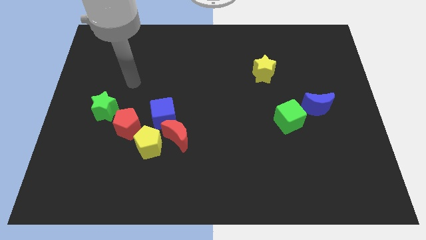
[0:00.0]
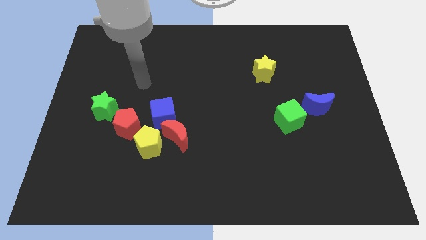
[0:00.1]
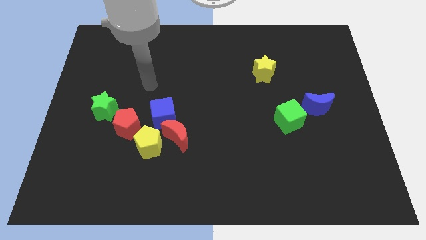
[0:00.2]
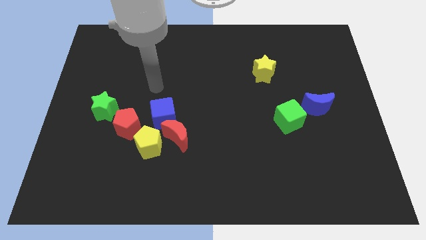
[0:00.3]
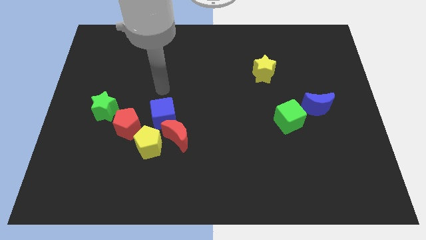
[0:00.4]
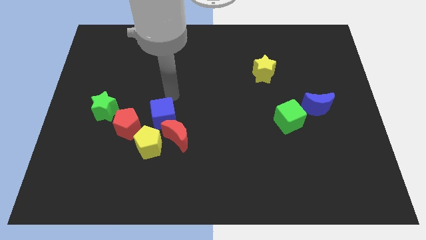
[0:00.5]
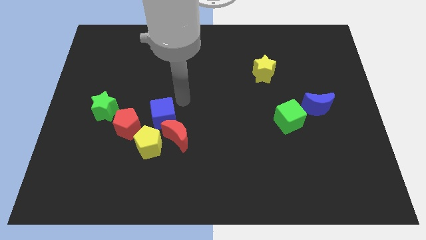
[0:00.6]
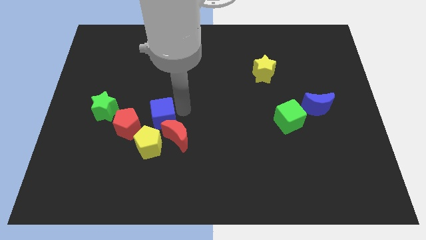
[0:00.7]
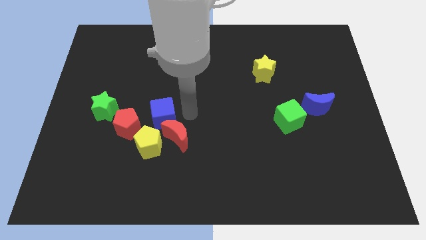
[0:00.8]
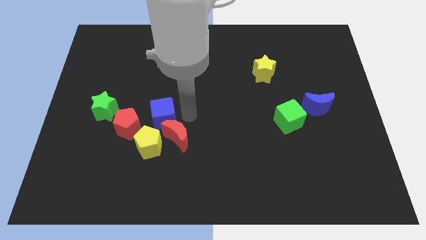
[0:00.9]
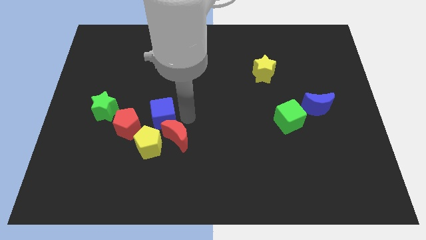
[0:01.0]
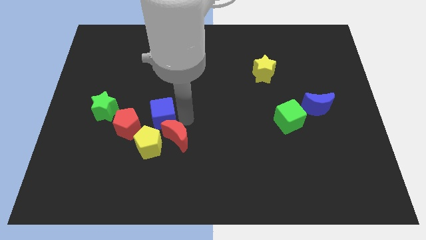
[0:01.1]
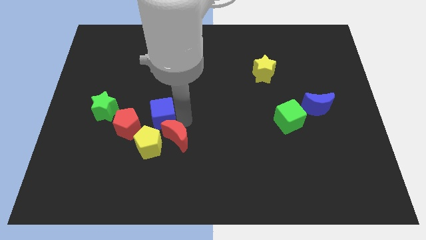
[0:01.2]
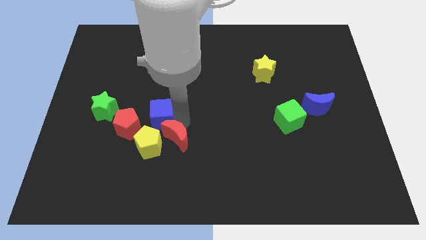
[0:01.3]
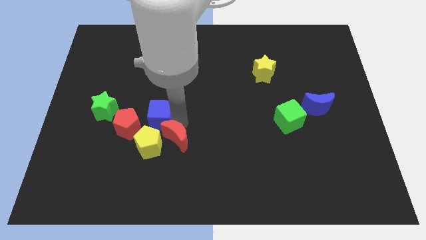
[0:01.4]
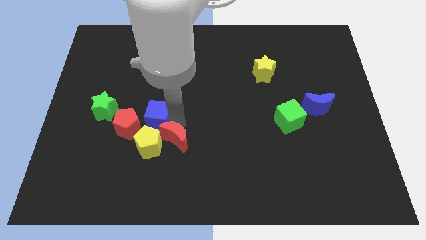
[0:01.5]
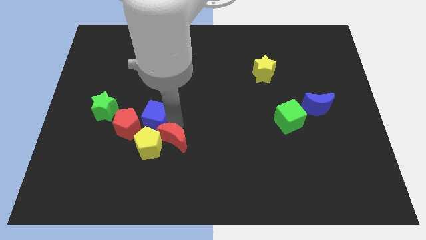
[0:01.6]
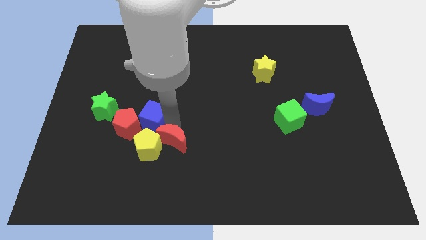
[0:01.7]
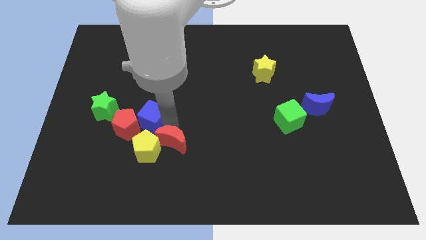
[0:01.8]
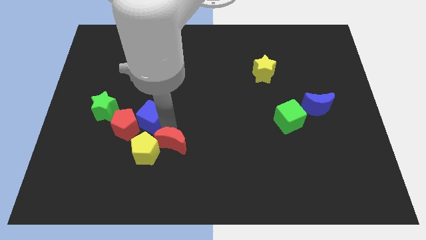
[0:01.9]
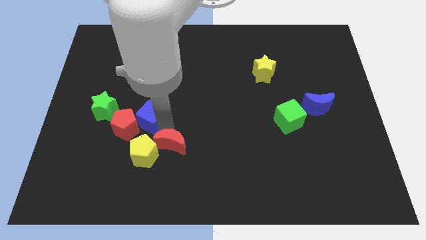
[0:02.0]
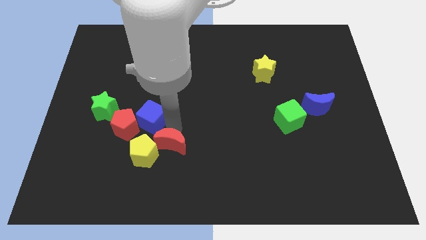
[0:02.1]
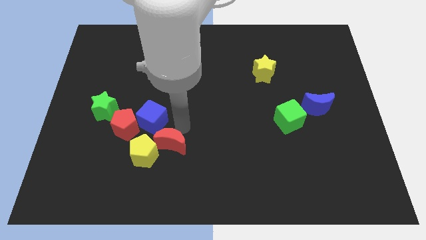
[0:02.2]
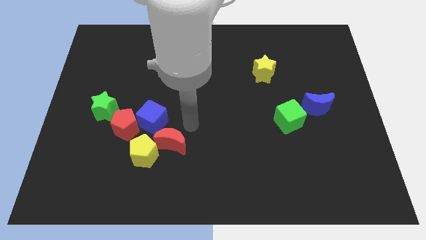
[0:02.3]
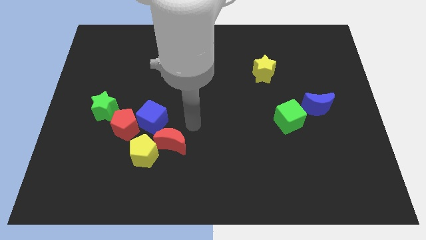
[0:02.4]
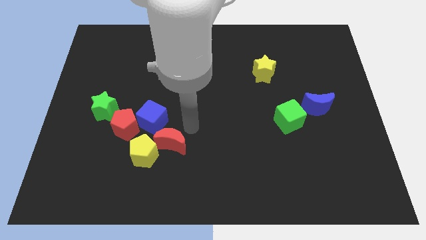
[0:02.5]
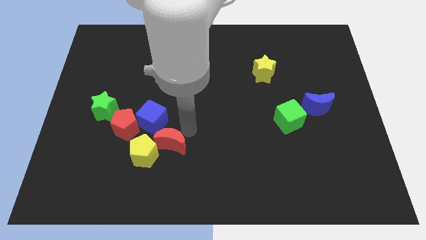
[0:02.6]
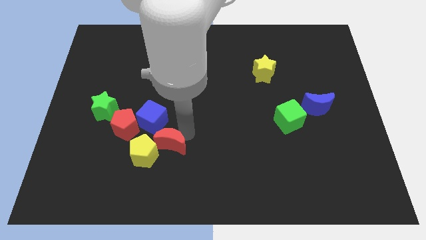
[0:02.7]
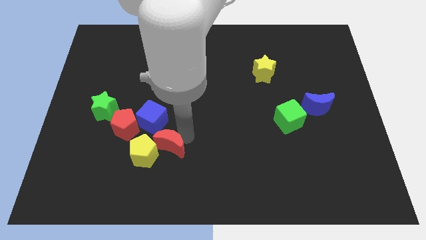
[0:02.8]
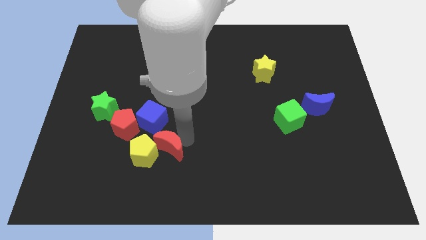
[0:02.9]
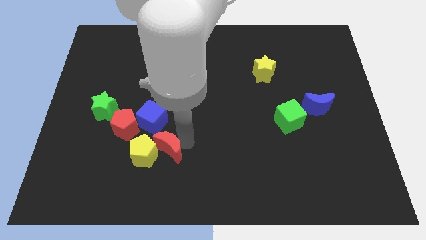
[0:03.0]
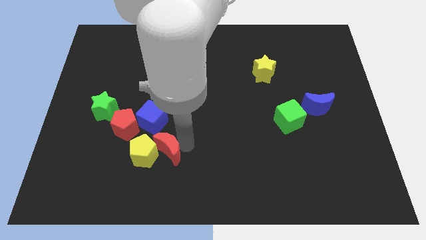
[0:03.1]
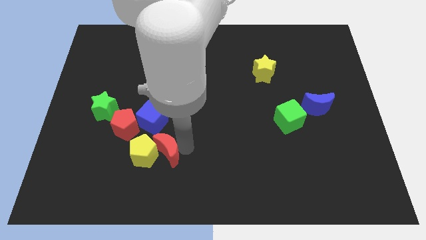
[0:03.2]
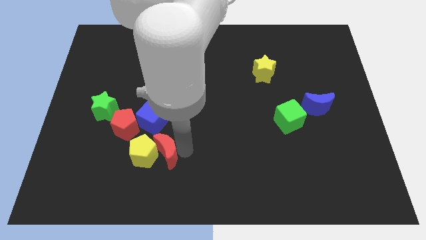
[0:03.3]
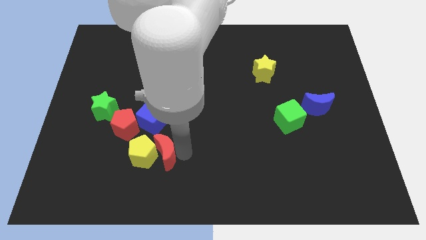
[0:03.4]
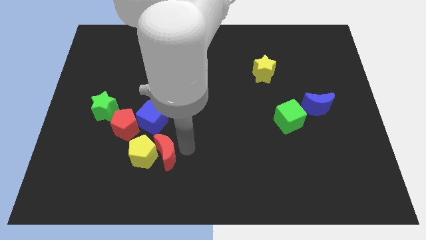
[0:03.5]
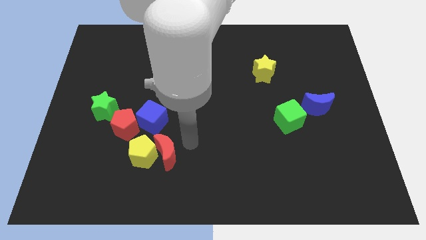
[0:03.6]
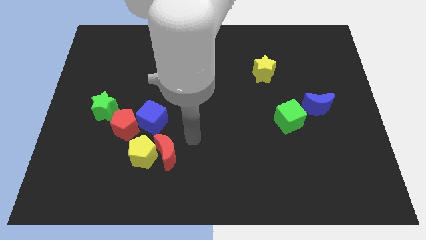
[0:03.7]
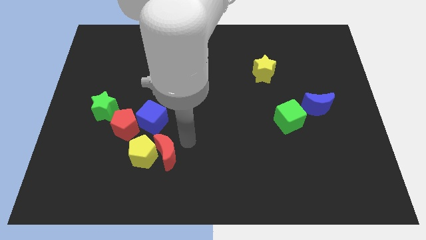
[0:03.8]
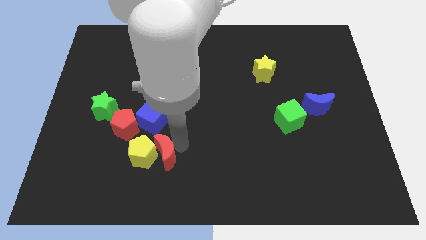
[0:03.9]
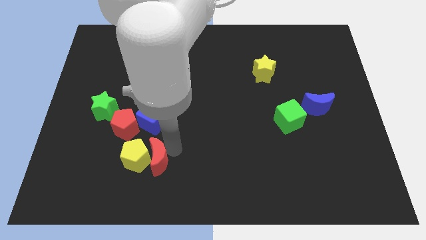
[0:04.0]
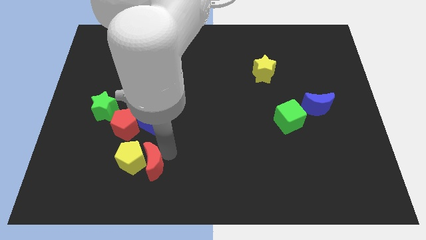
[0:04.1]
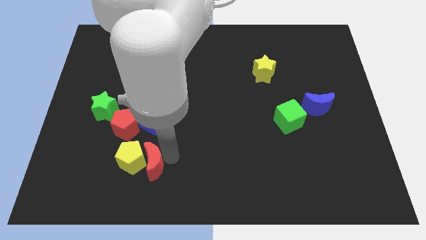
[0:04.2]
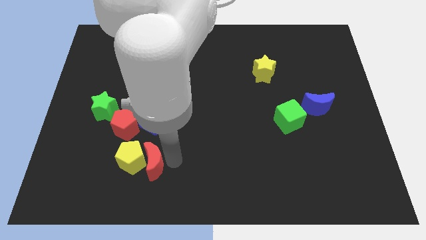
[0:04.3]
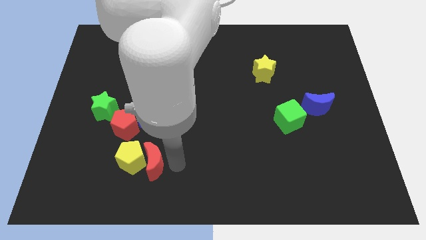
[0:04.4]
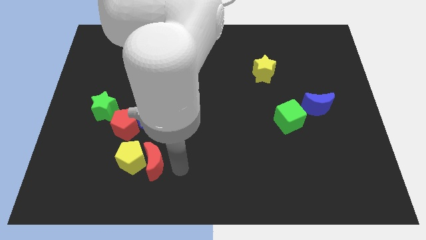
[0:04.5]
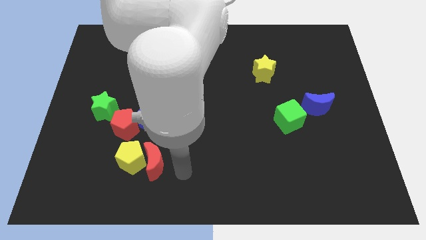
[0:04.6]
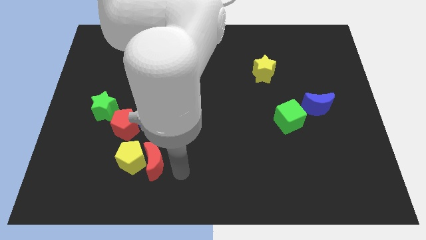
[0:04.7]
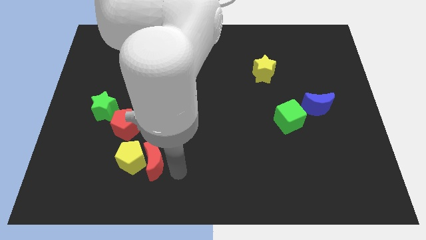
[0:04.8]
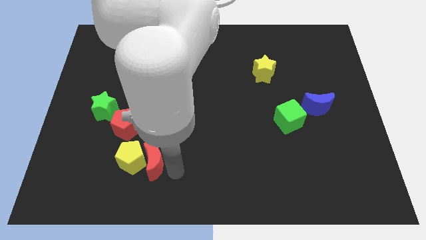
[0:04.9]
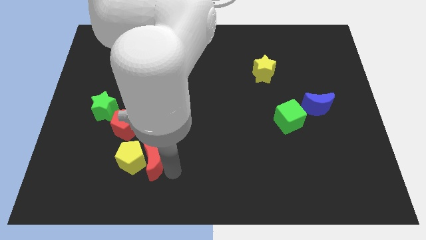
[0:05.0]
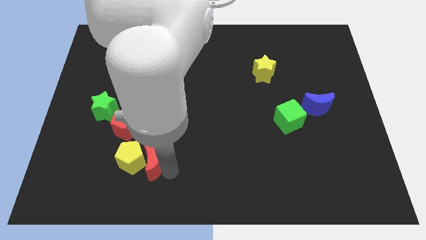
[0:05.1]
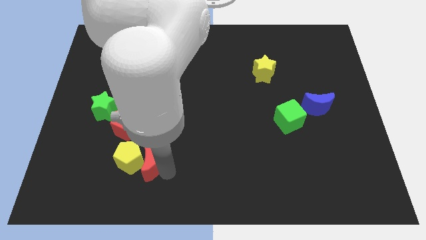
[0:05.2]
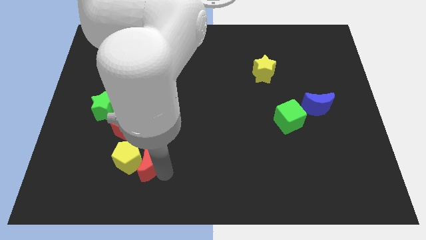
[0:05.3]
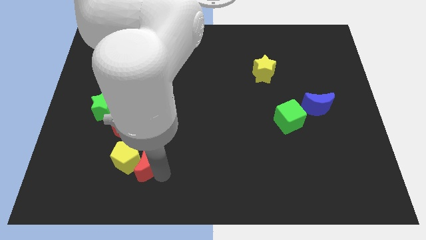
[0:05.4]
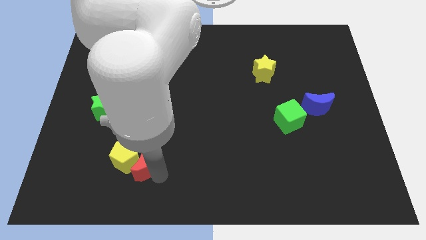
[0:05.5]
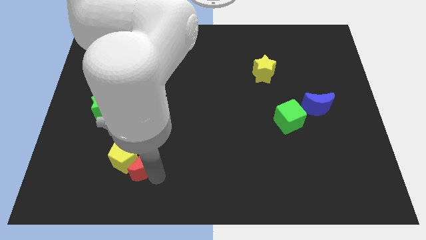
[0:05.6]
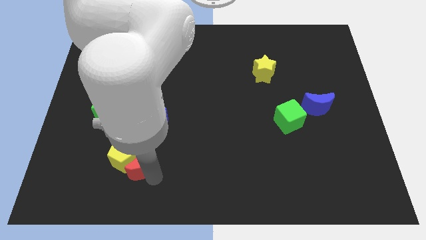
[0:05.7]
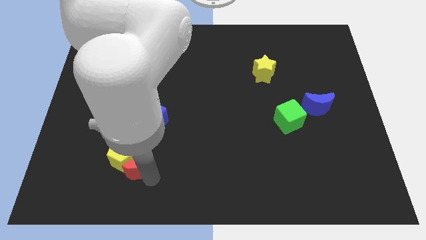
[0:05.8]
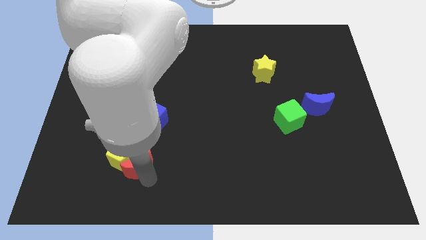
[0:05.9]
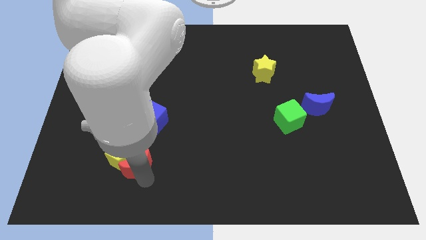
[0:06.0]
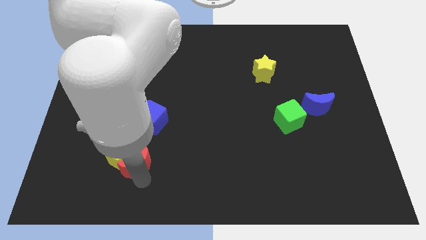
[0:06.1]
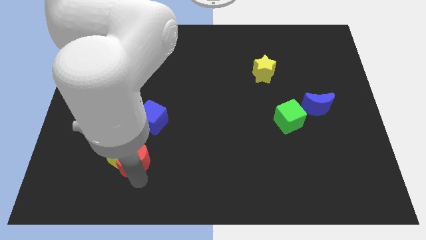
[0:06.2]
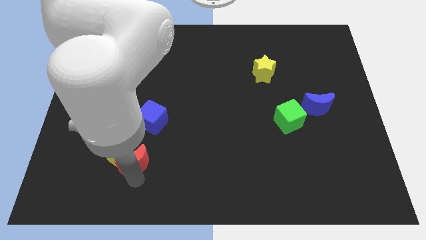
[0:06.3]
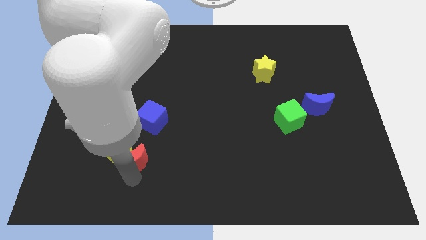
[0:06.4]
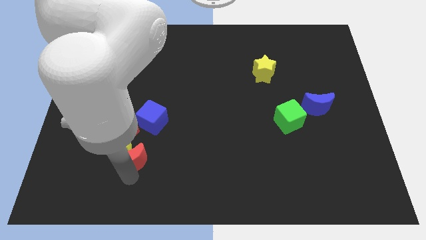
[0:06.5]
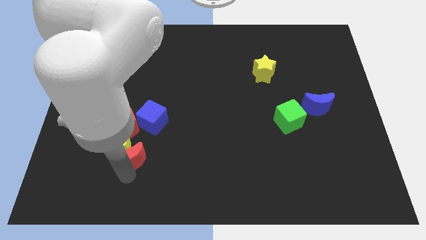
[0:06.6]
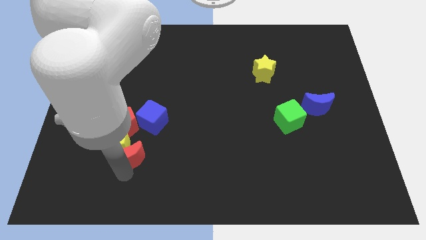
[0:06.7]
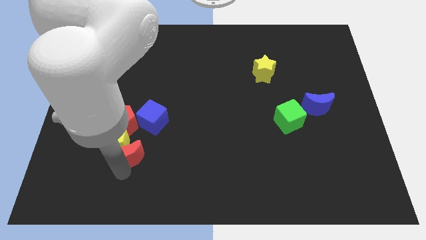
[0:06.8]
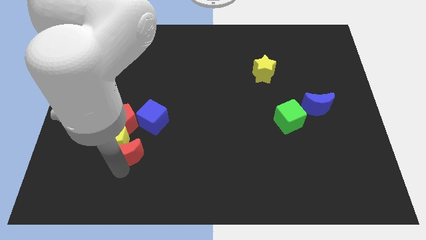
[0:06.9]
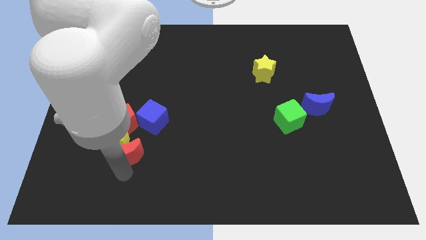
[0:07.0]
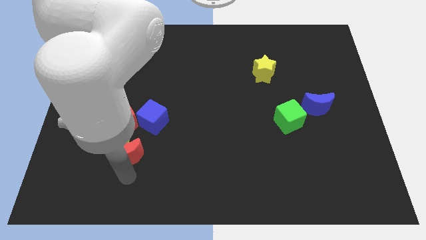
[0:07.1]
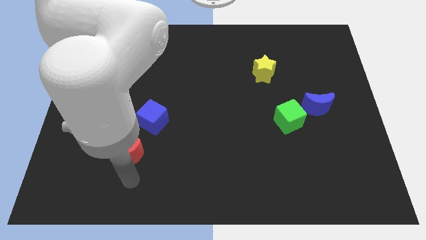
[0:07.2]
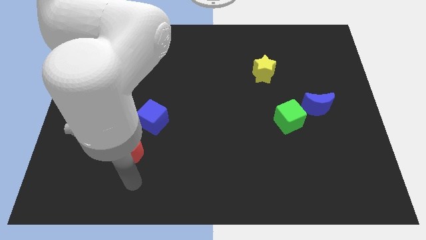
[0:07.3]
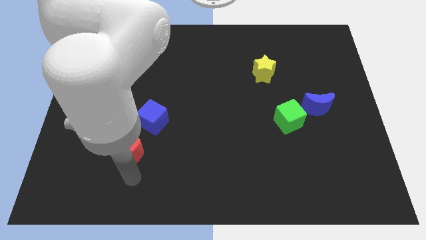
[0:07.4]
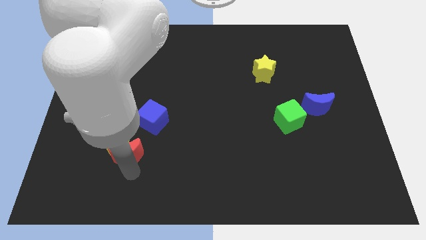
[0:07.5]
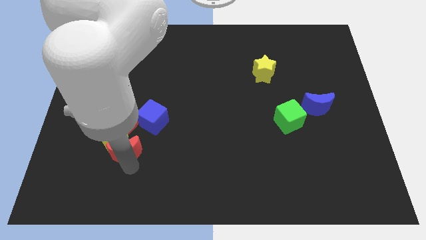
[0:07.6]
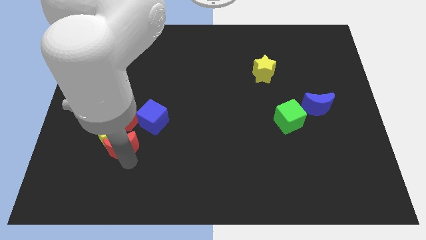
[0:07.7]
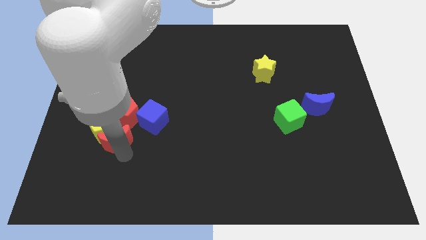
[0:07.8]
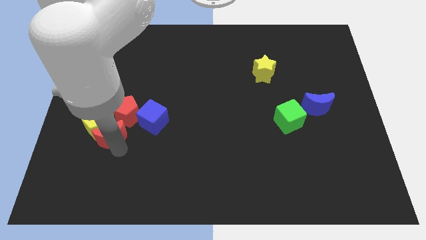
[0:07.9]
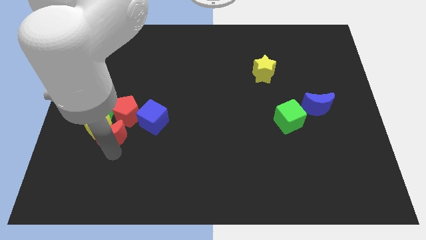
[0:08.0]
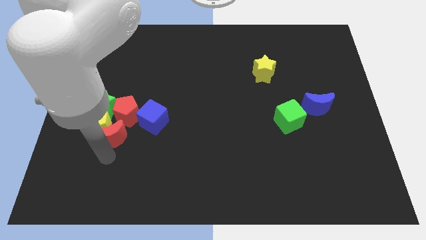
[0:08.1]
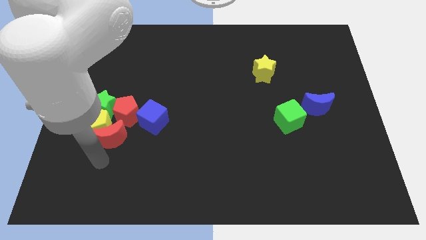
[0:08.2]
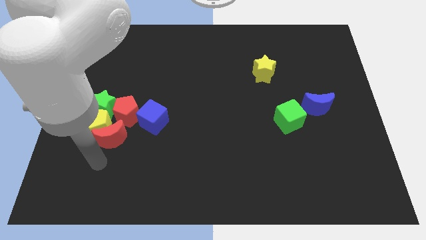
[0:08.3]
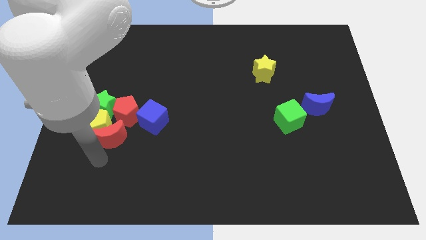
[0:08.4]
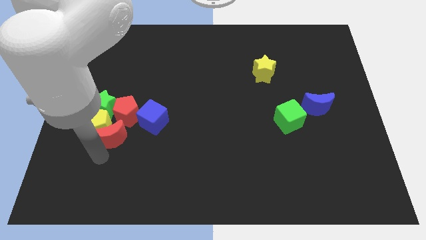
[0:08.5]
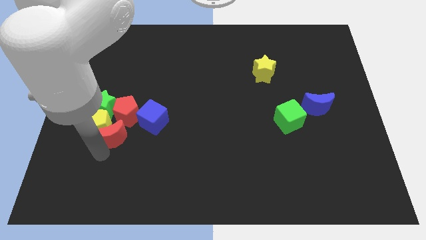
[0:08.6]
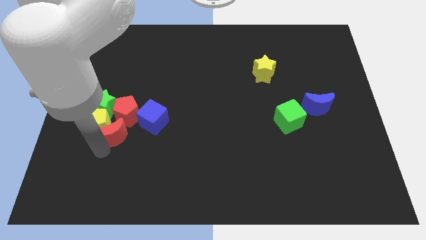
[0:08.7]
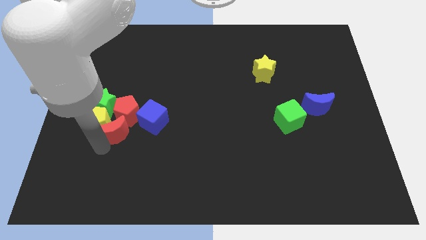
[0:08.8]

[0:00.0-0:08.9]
move the red moon to the red pentagon
